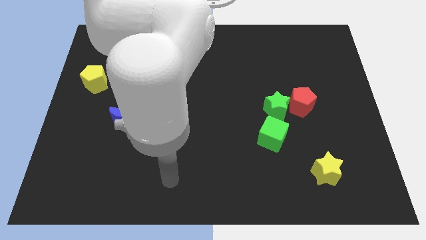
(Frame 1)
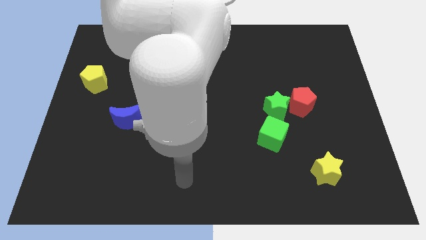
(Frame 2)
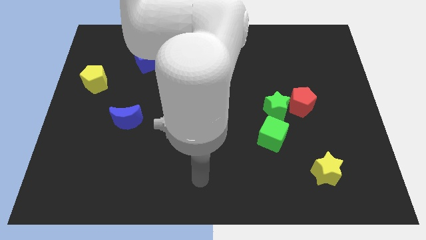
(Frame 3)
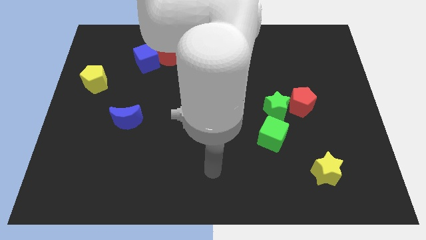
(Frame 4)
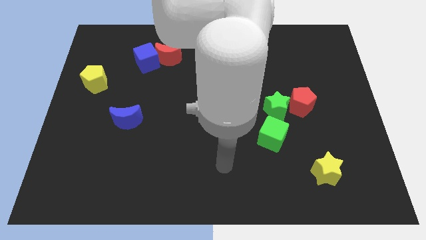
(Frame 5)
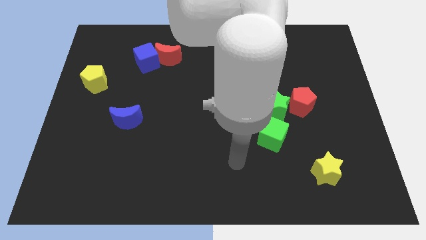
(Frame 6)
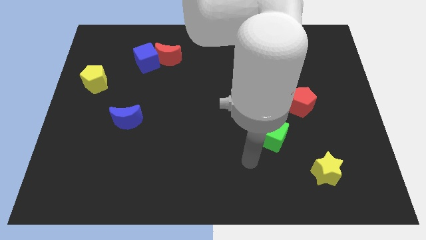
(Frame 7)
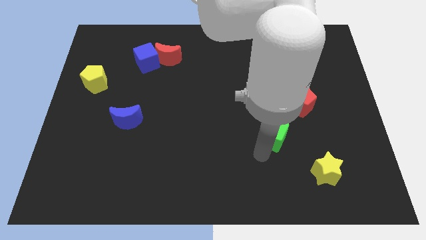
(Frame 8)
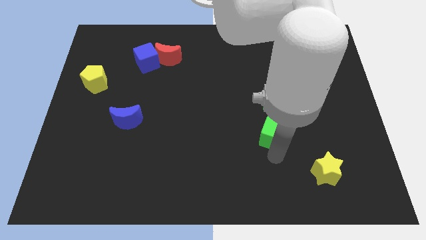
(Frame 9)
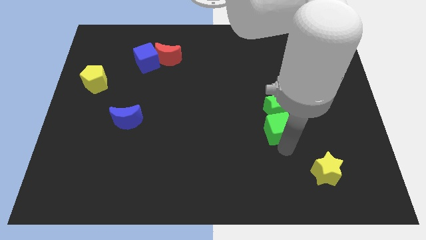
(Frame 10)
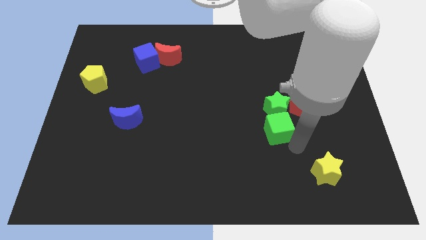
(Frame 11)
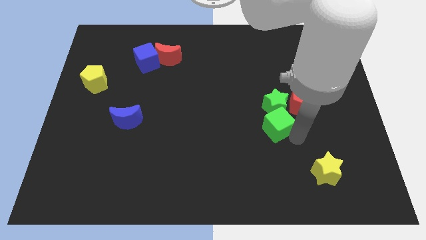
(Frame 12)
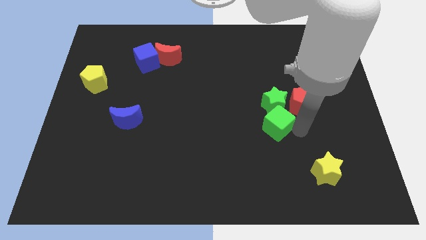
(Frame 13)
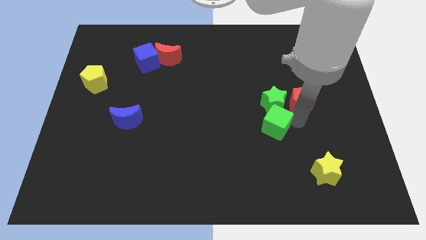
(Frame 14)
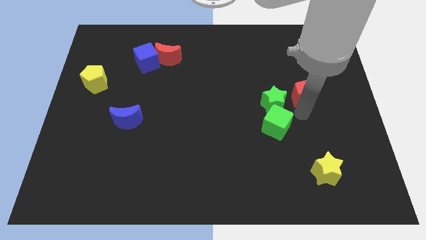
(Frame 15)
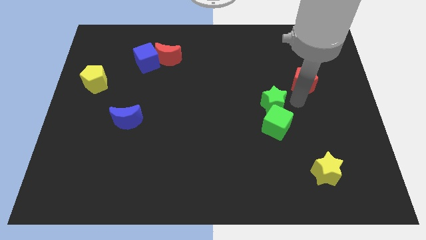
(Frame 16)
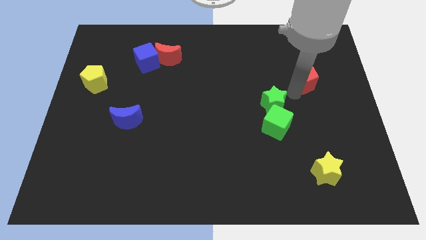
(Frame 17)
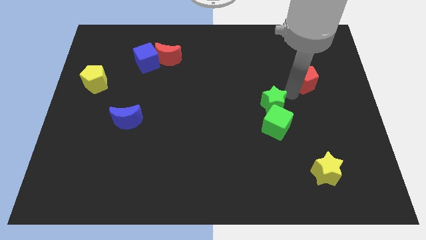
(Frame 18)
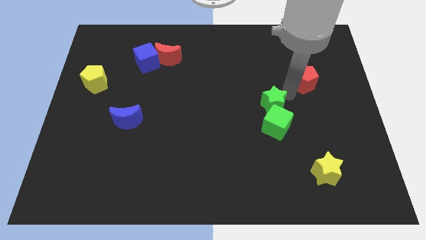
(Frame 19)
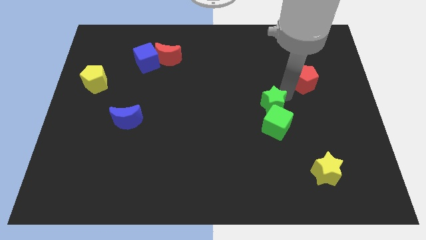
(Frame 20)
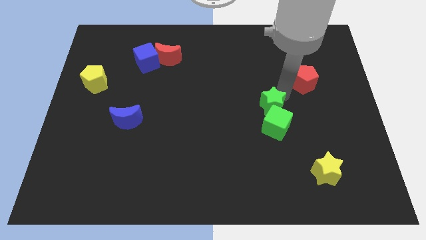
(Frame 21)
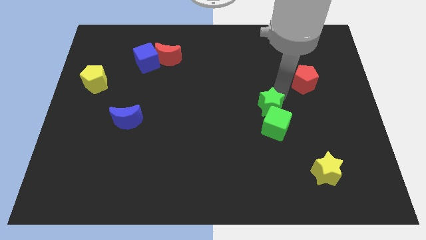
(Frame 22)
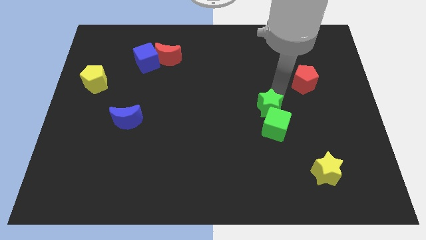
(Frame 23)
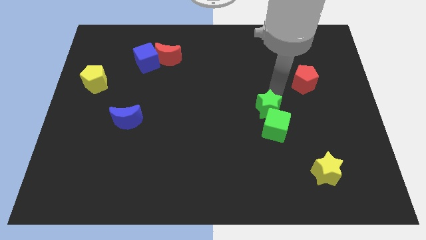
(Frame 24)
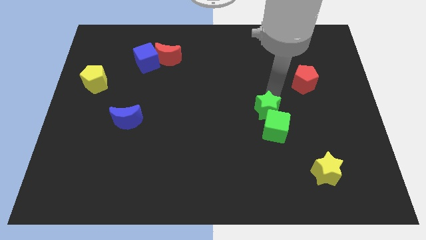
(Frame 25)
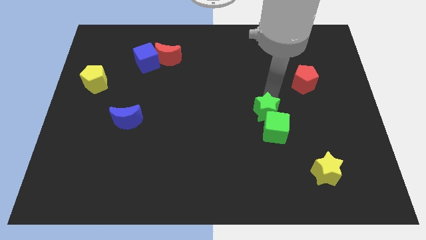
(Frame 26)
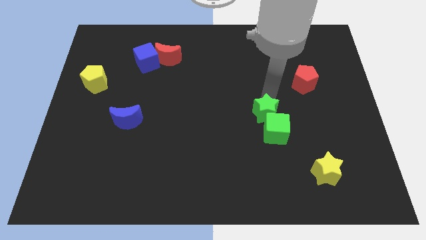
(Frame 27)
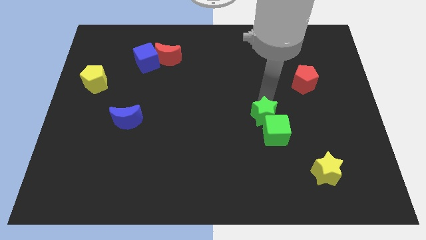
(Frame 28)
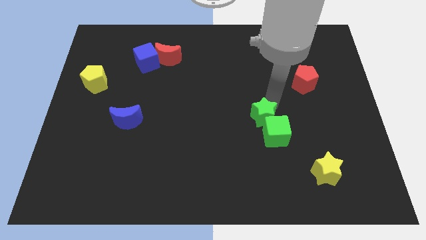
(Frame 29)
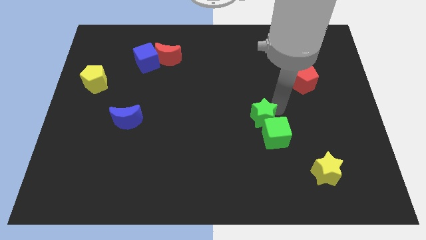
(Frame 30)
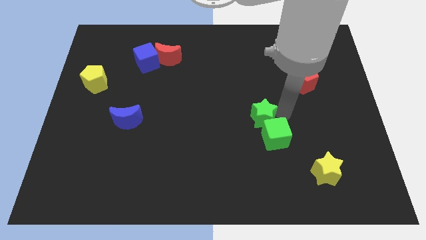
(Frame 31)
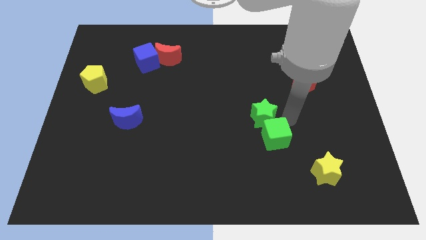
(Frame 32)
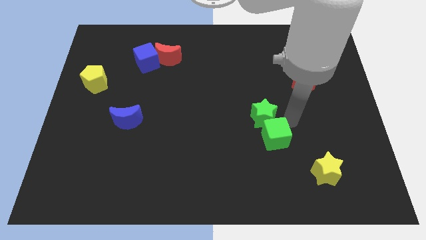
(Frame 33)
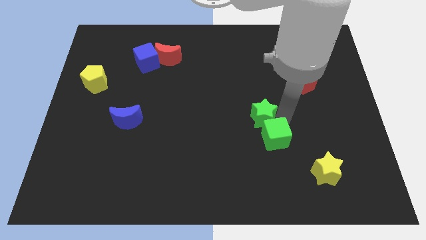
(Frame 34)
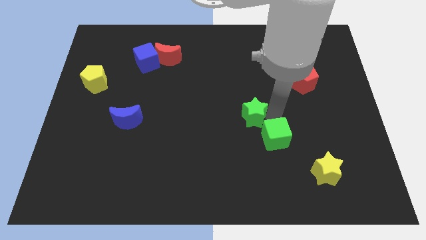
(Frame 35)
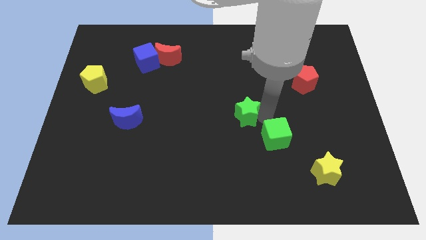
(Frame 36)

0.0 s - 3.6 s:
move the green star left a bit

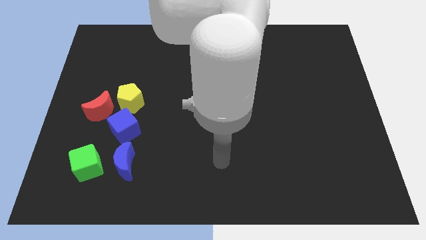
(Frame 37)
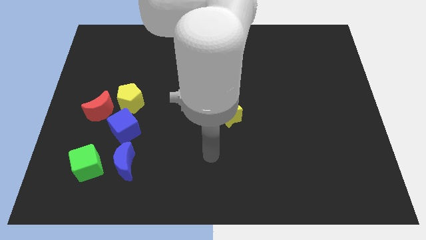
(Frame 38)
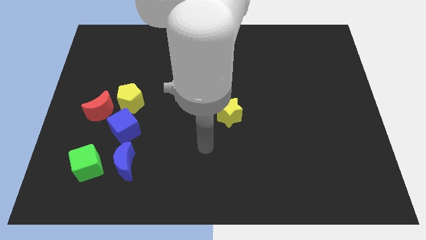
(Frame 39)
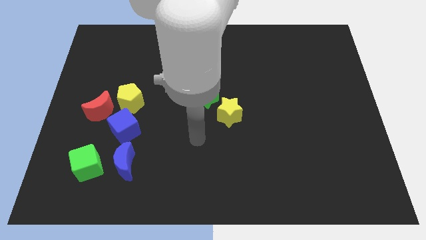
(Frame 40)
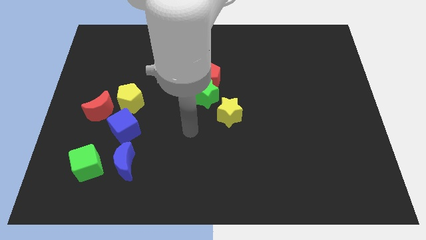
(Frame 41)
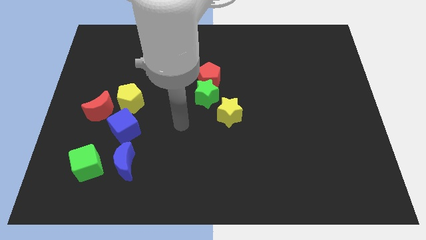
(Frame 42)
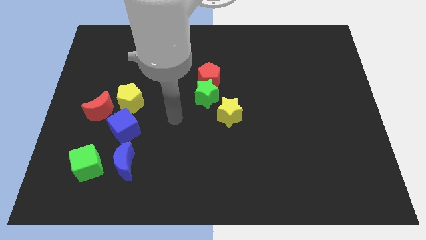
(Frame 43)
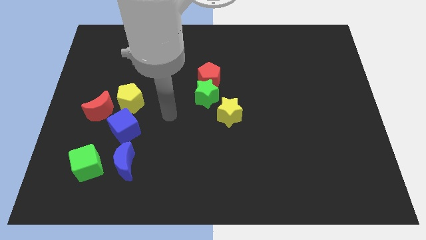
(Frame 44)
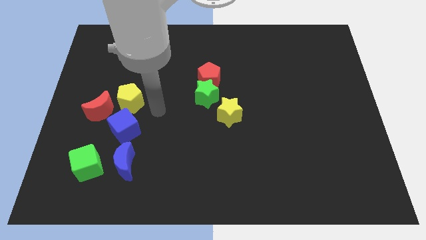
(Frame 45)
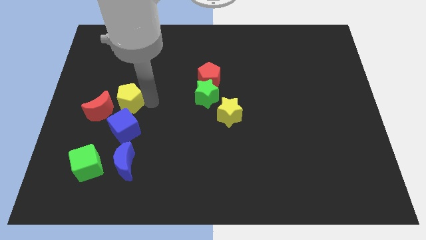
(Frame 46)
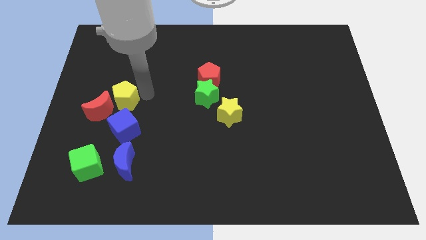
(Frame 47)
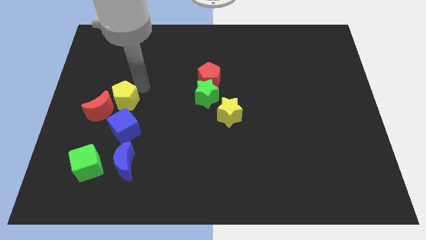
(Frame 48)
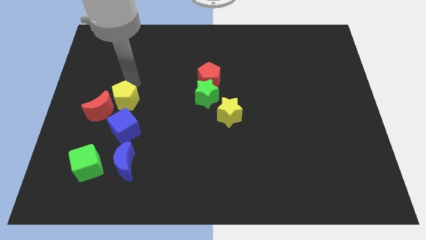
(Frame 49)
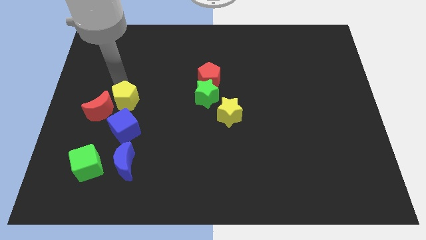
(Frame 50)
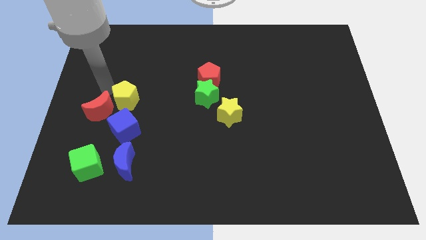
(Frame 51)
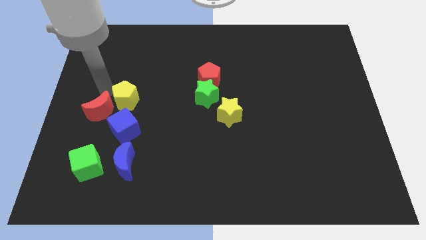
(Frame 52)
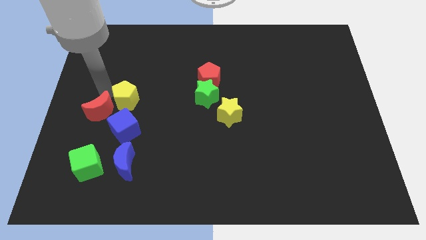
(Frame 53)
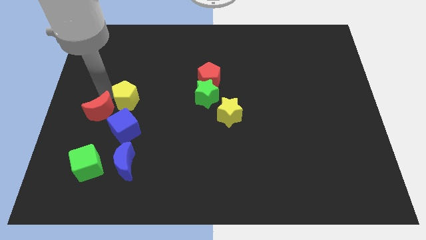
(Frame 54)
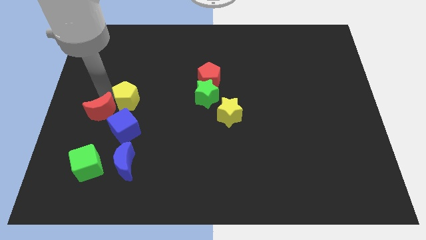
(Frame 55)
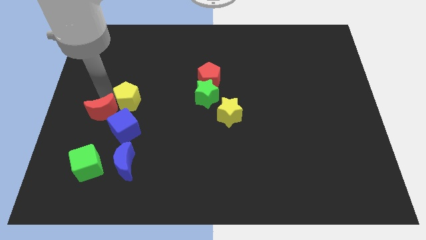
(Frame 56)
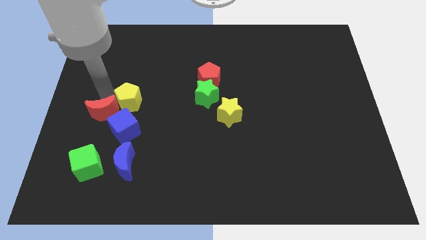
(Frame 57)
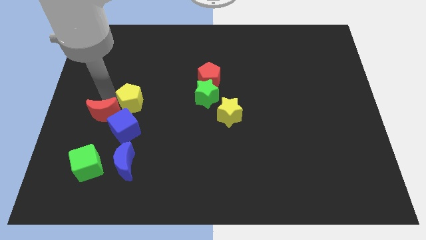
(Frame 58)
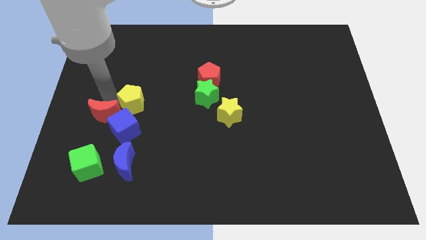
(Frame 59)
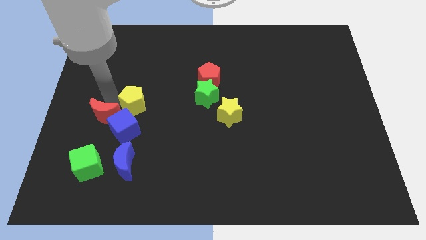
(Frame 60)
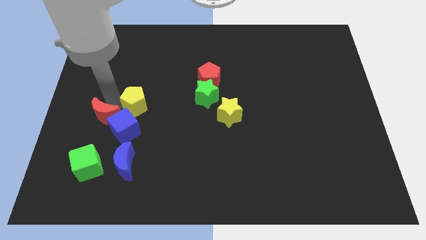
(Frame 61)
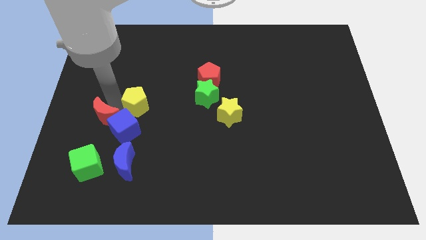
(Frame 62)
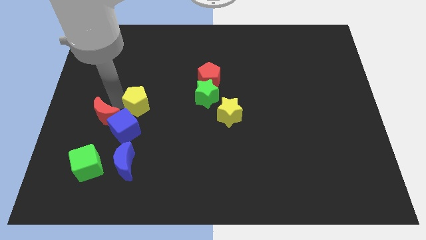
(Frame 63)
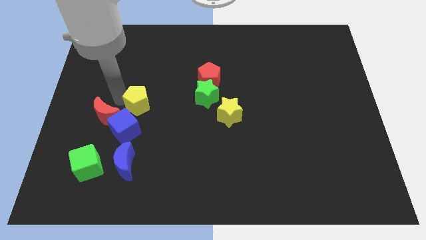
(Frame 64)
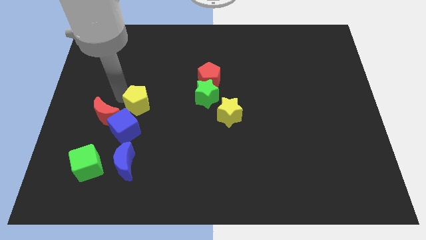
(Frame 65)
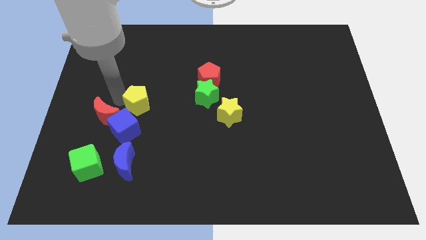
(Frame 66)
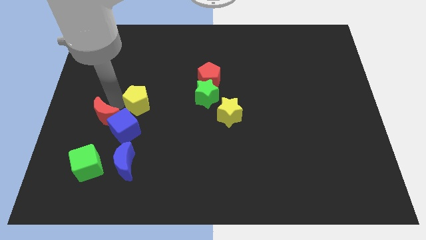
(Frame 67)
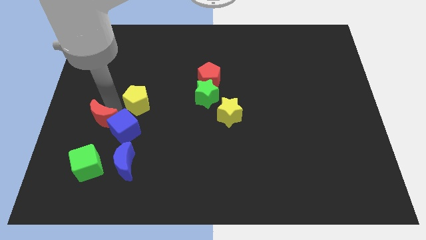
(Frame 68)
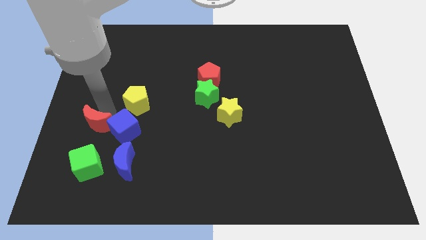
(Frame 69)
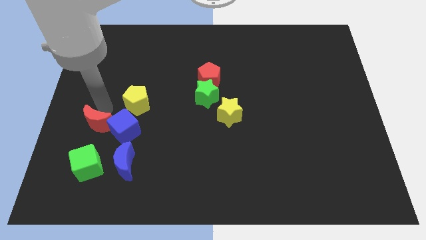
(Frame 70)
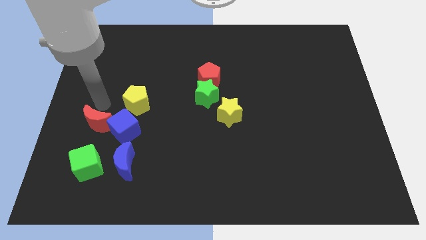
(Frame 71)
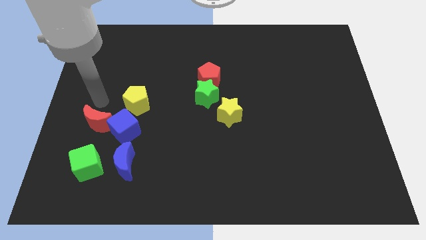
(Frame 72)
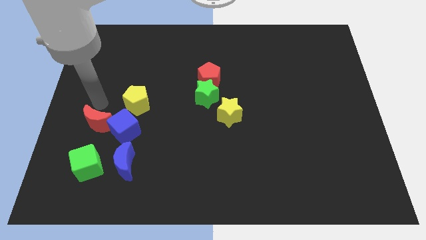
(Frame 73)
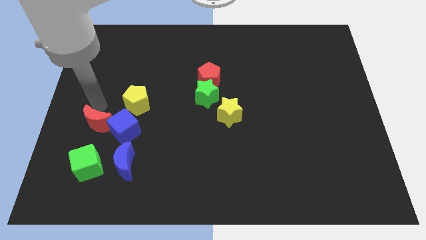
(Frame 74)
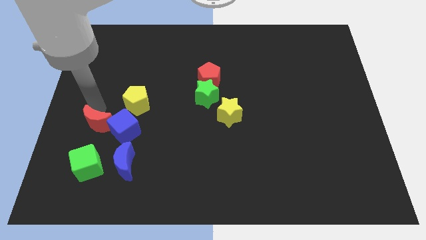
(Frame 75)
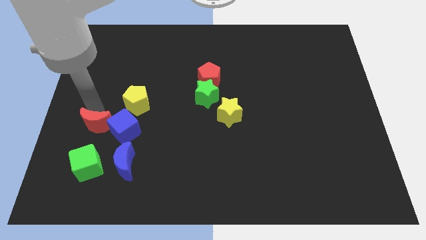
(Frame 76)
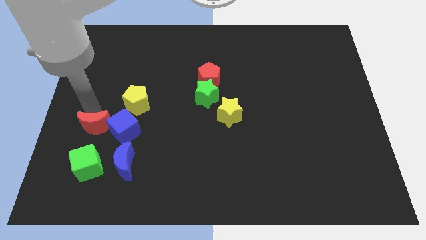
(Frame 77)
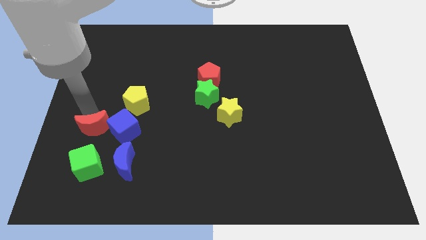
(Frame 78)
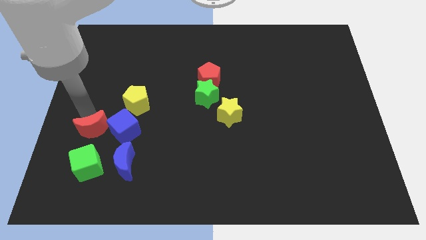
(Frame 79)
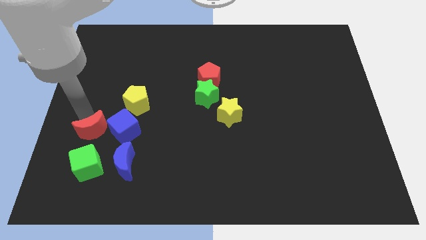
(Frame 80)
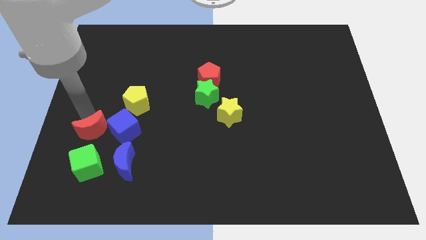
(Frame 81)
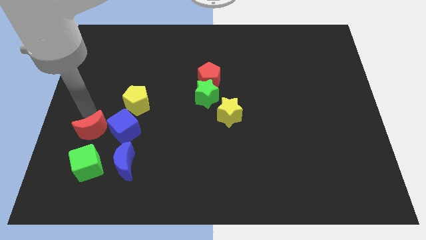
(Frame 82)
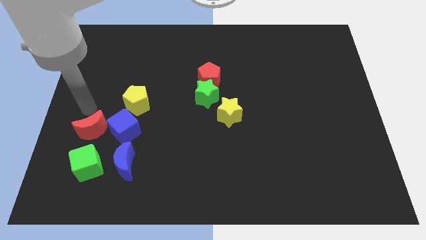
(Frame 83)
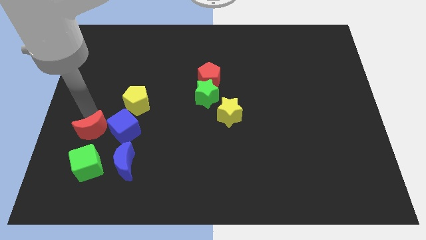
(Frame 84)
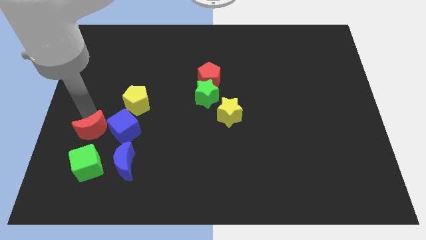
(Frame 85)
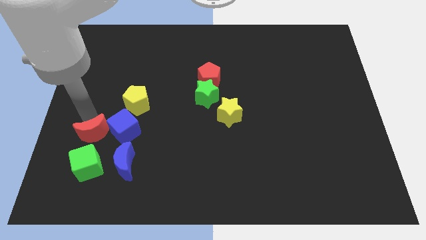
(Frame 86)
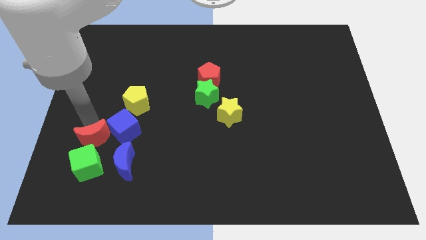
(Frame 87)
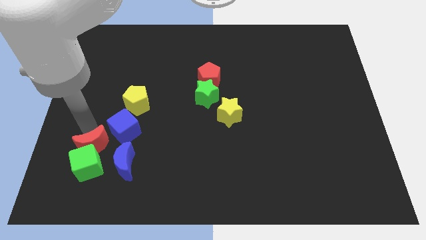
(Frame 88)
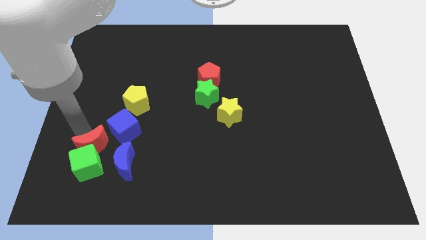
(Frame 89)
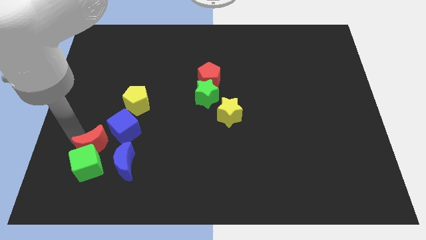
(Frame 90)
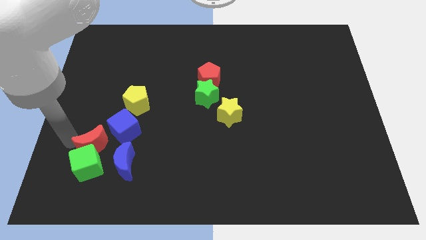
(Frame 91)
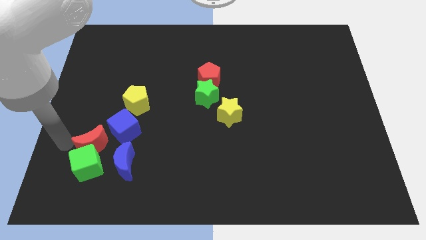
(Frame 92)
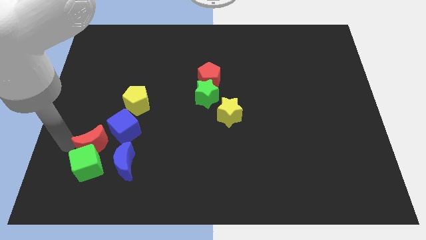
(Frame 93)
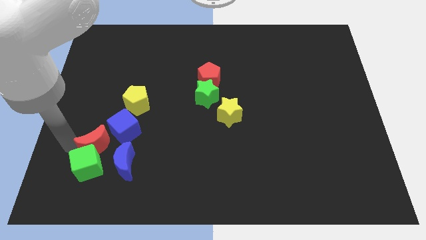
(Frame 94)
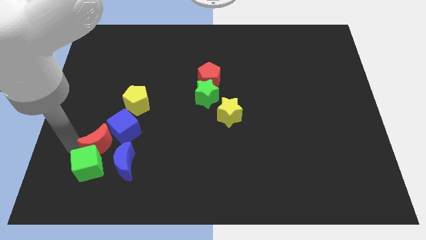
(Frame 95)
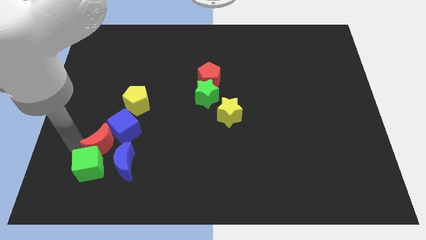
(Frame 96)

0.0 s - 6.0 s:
move the red moon a bit diagonally downwards and to the right
